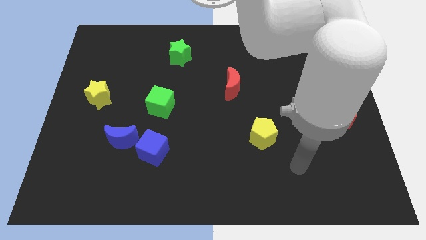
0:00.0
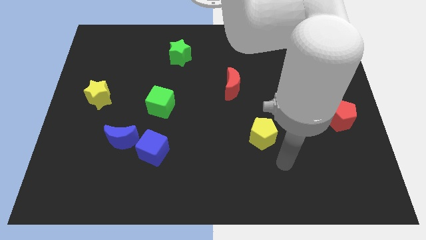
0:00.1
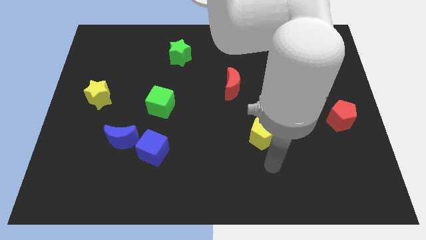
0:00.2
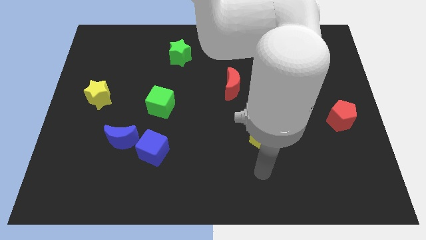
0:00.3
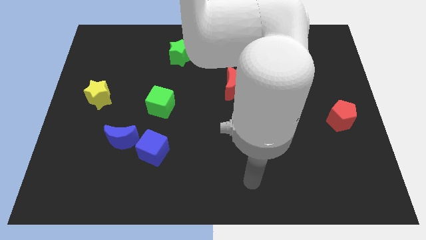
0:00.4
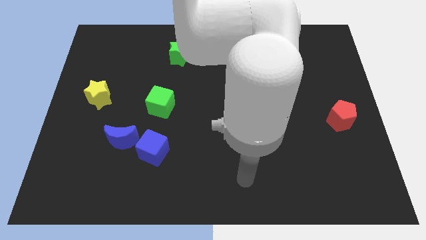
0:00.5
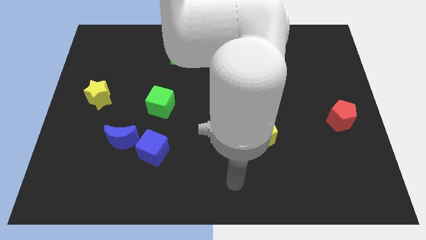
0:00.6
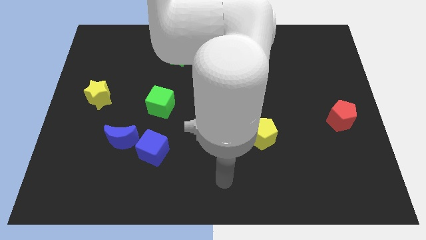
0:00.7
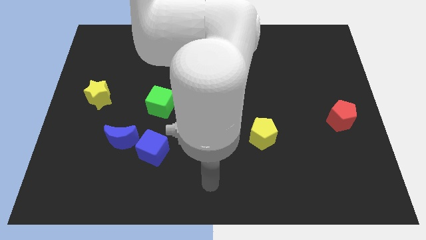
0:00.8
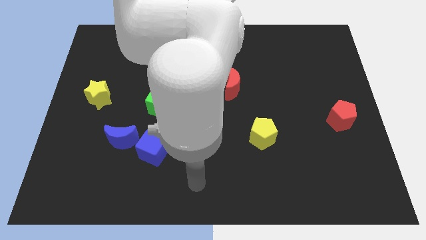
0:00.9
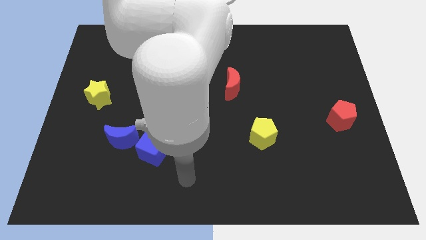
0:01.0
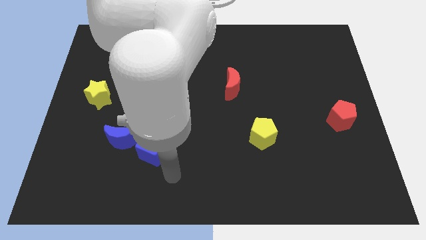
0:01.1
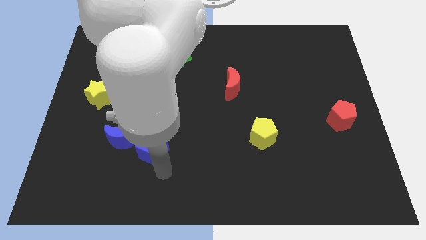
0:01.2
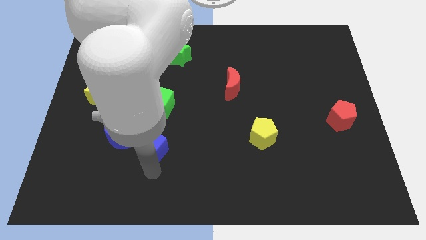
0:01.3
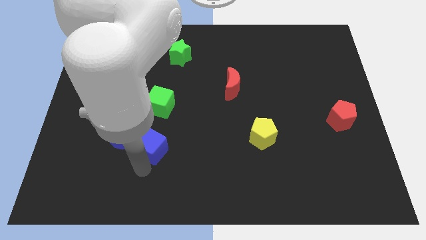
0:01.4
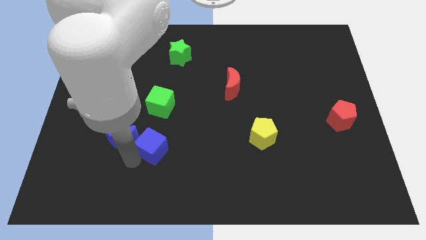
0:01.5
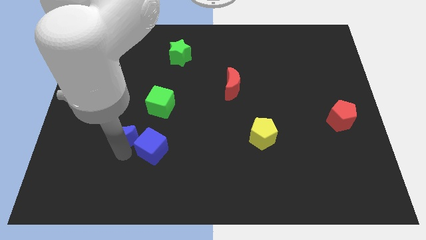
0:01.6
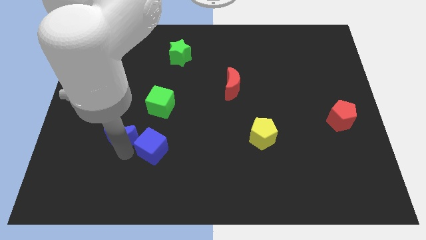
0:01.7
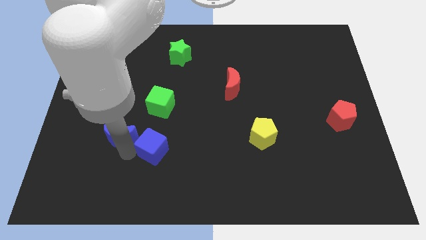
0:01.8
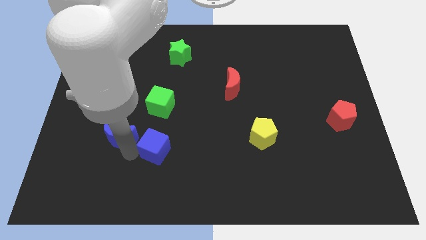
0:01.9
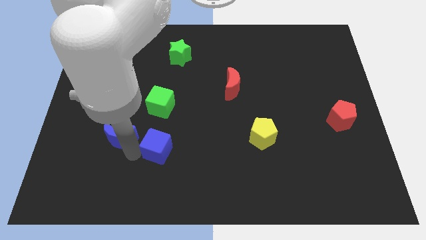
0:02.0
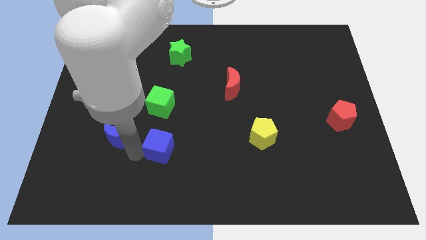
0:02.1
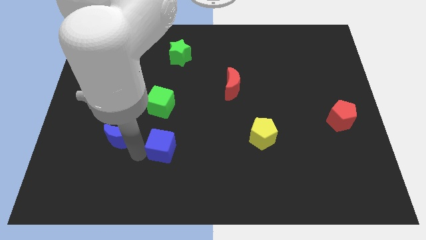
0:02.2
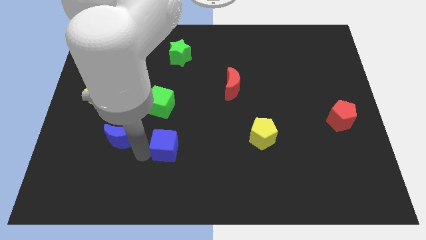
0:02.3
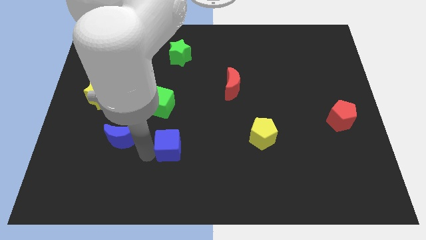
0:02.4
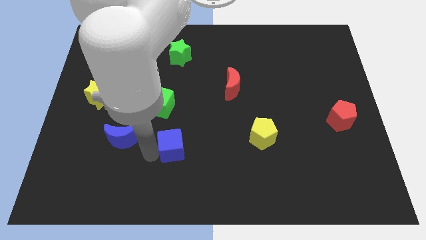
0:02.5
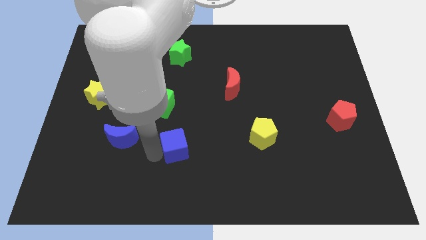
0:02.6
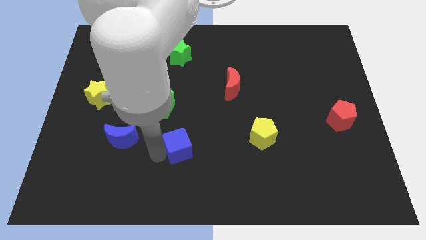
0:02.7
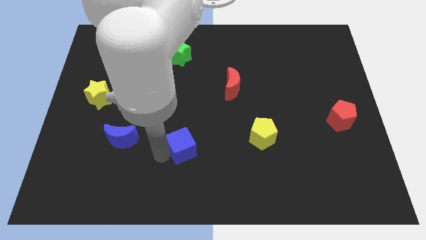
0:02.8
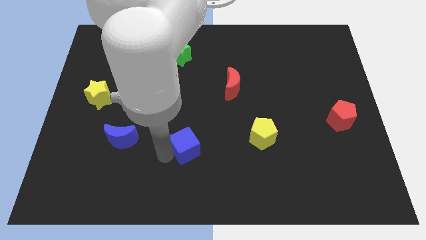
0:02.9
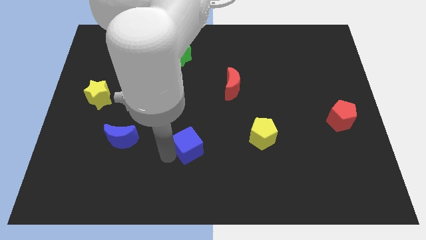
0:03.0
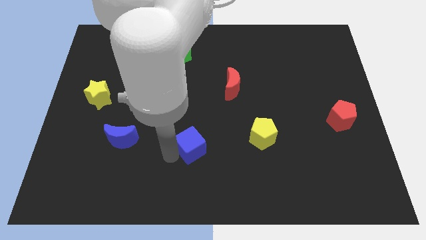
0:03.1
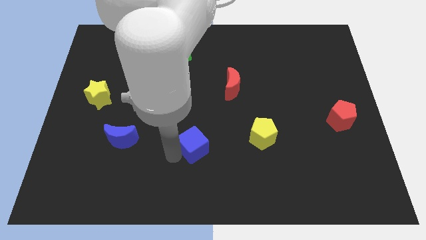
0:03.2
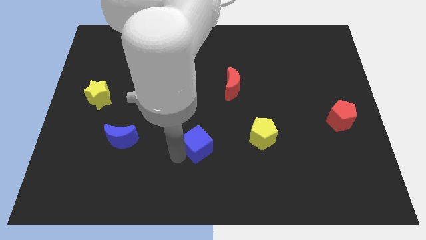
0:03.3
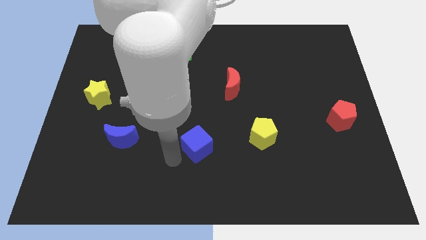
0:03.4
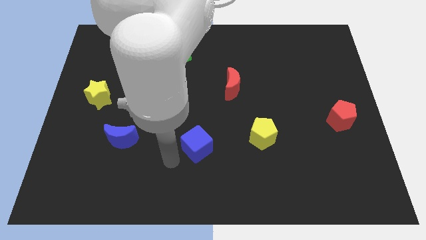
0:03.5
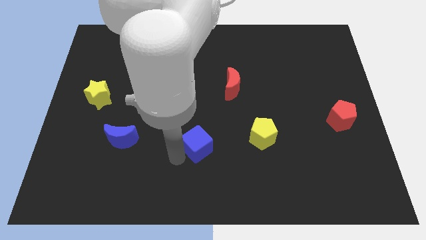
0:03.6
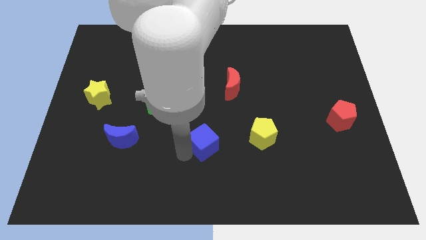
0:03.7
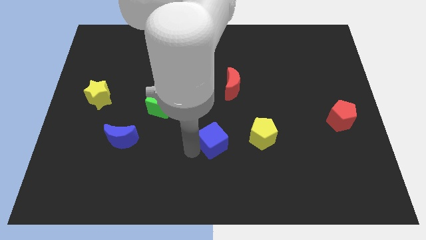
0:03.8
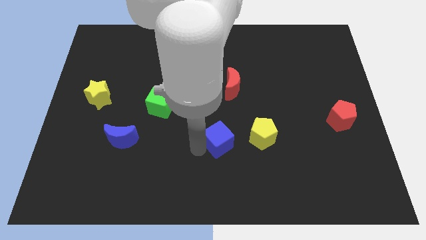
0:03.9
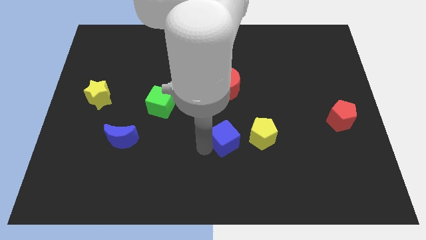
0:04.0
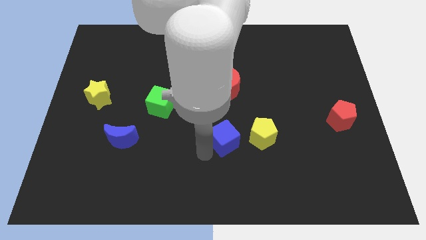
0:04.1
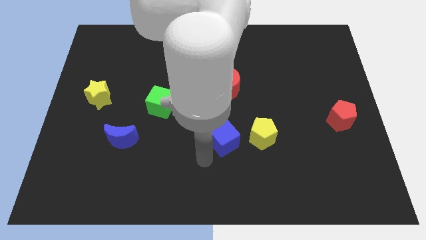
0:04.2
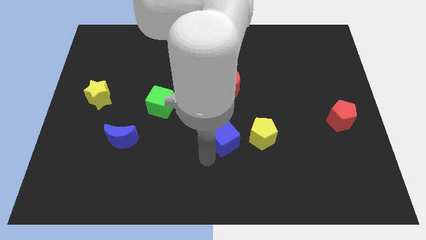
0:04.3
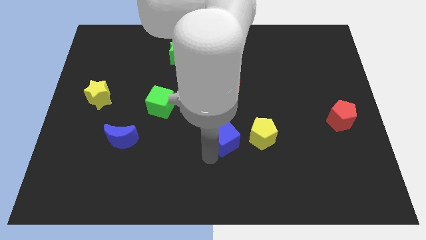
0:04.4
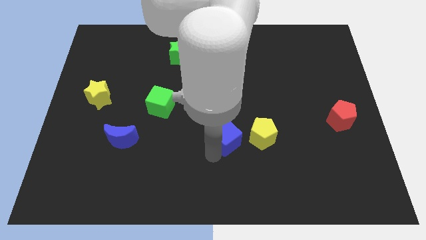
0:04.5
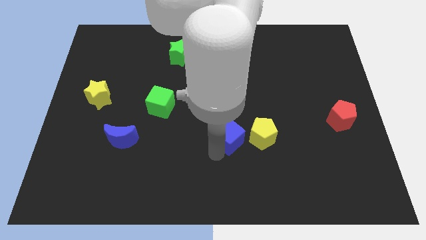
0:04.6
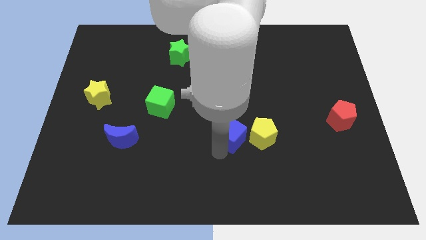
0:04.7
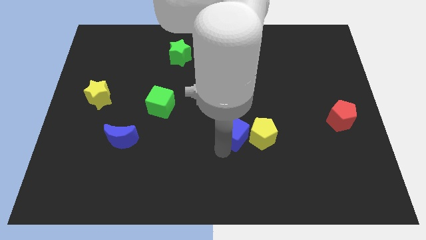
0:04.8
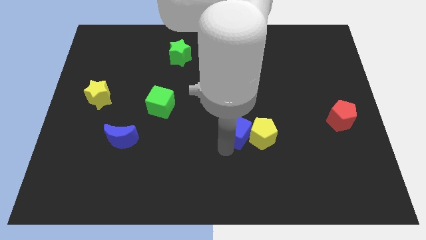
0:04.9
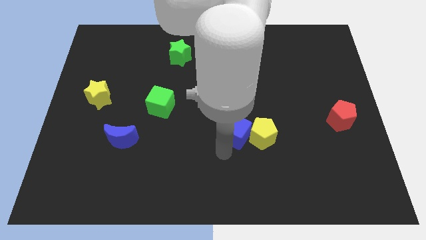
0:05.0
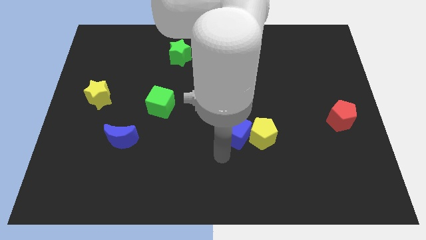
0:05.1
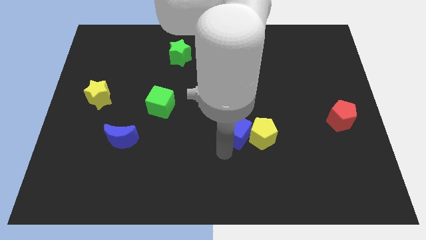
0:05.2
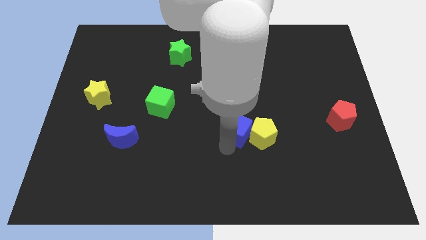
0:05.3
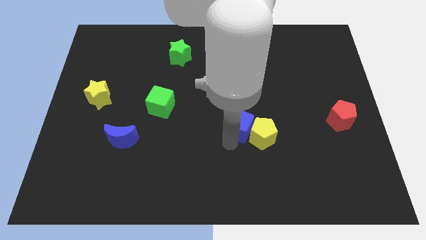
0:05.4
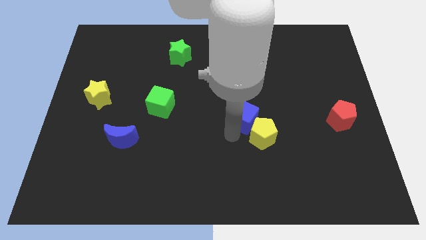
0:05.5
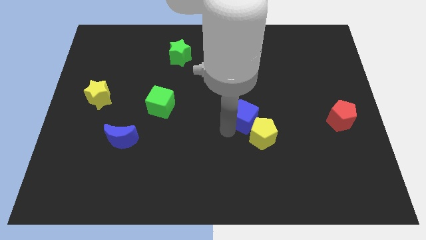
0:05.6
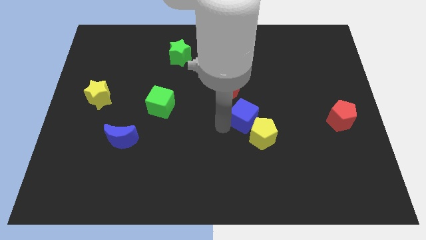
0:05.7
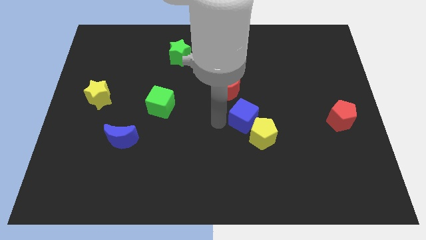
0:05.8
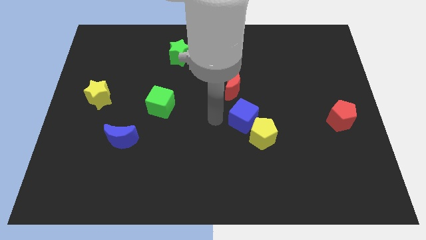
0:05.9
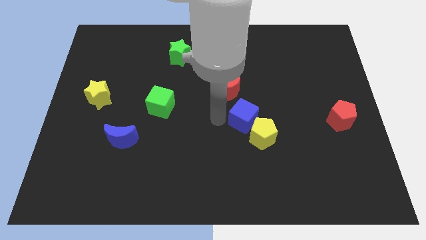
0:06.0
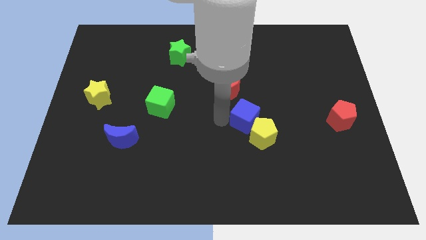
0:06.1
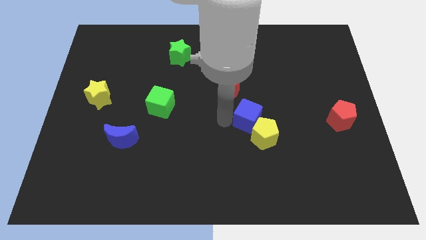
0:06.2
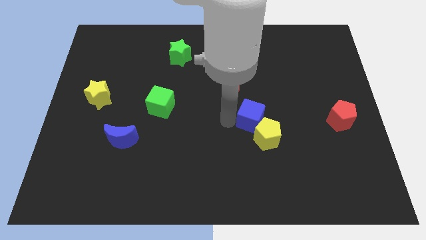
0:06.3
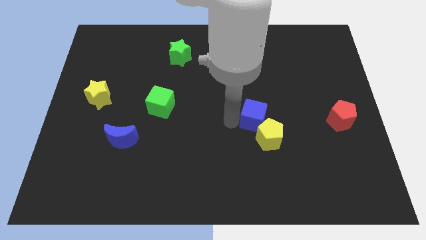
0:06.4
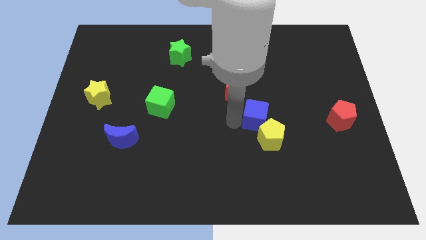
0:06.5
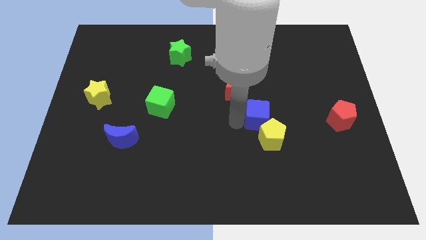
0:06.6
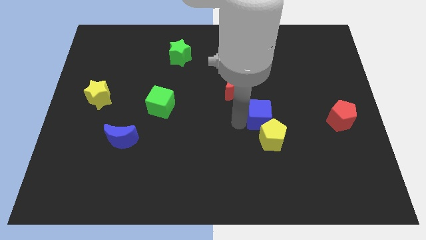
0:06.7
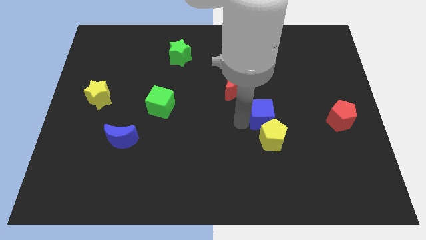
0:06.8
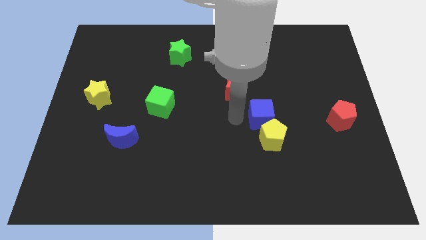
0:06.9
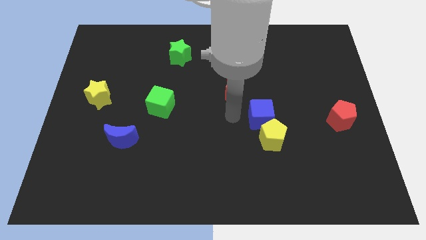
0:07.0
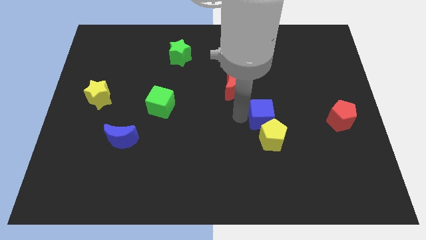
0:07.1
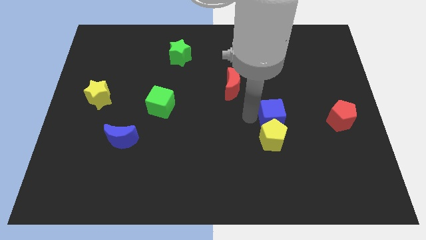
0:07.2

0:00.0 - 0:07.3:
put the blue cube just left of the red pentagon
